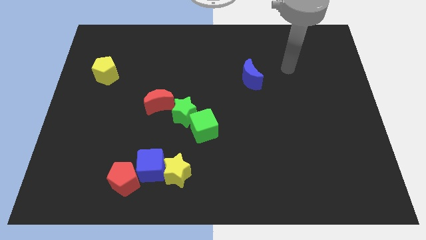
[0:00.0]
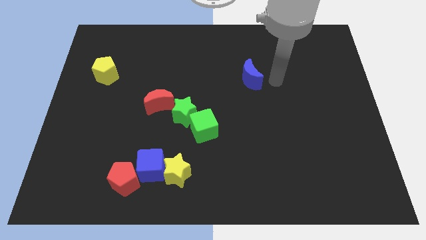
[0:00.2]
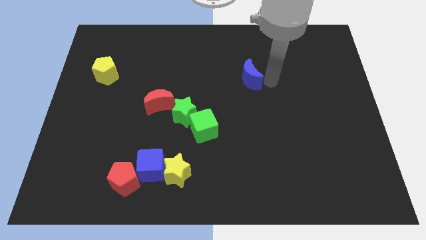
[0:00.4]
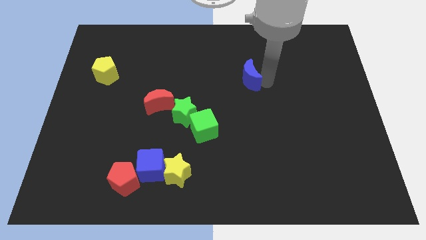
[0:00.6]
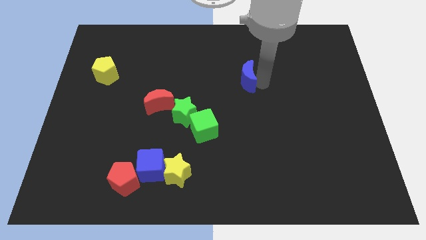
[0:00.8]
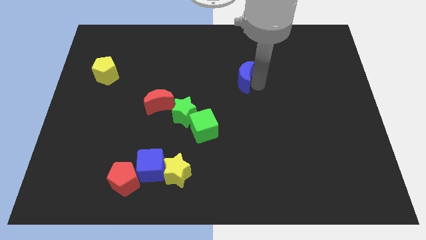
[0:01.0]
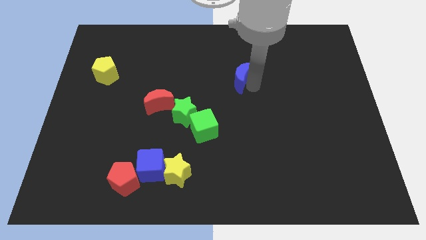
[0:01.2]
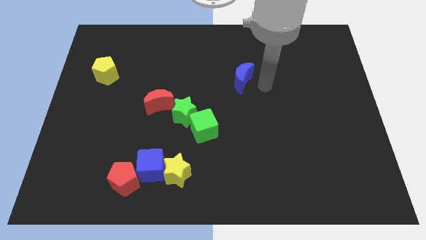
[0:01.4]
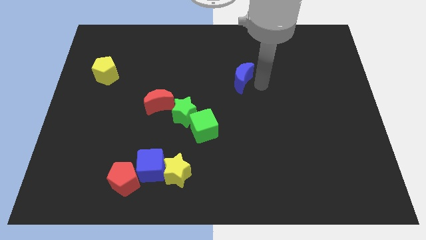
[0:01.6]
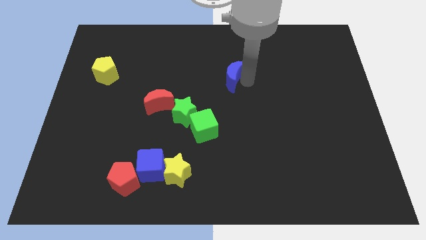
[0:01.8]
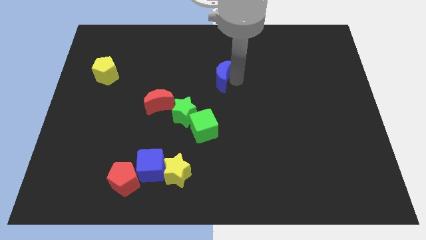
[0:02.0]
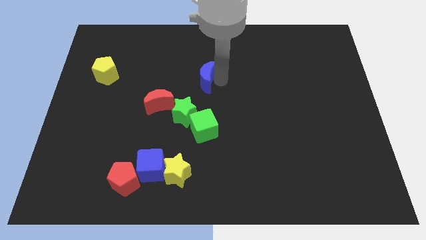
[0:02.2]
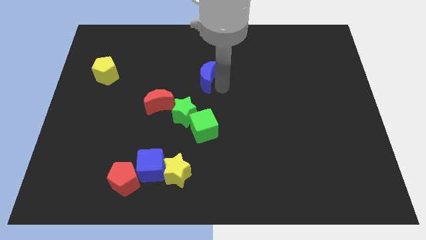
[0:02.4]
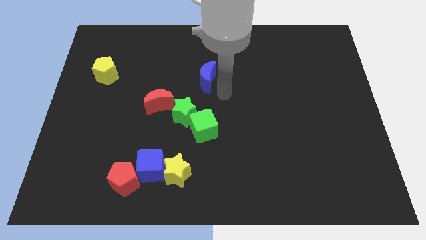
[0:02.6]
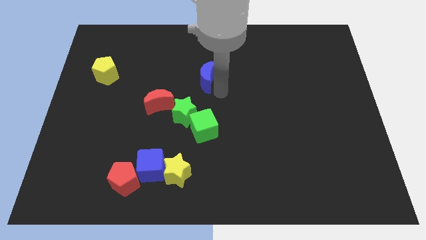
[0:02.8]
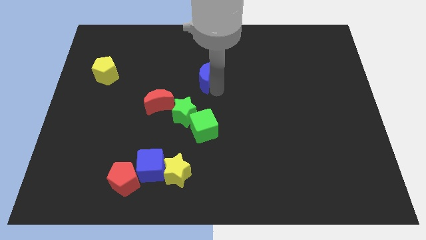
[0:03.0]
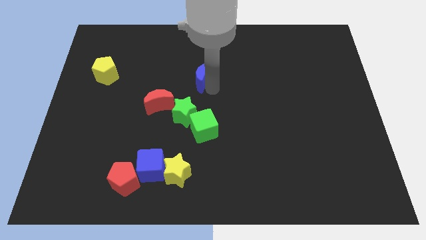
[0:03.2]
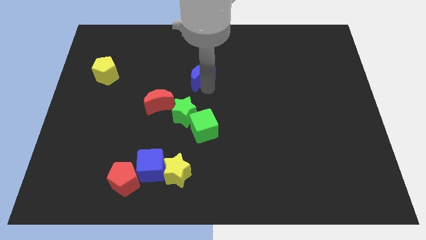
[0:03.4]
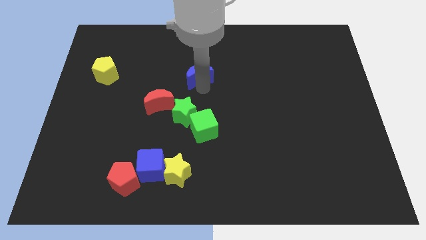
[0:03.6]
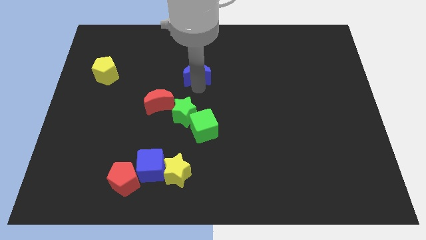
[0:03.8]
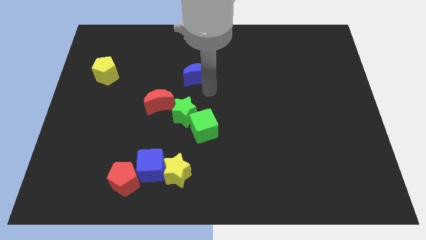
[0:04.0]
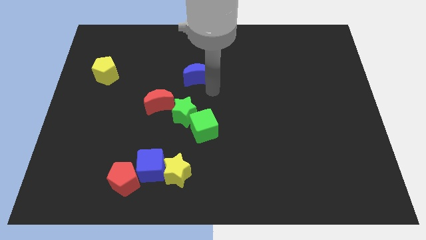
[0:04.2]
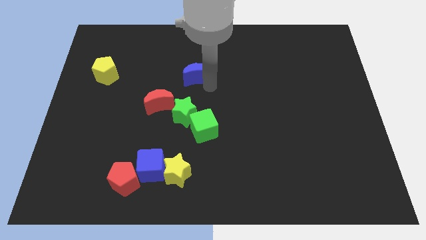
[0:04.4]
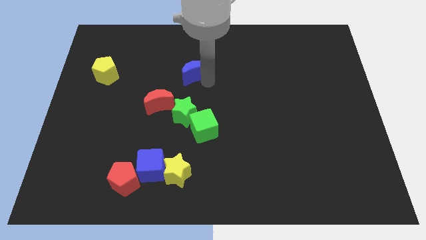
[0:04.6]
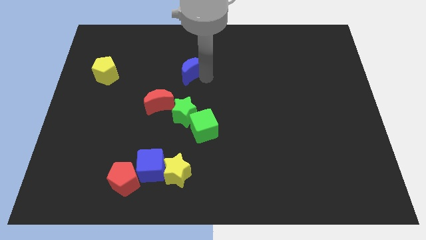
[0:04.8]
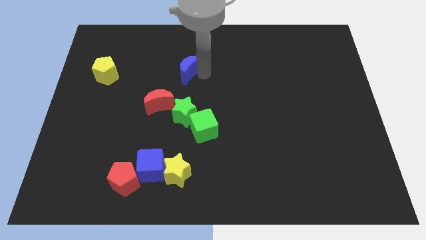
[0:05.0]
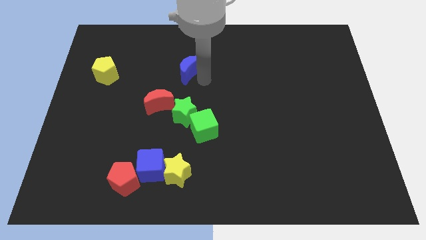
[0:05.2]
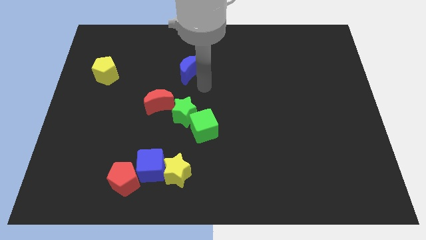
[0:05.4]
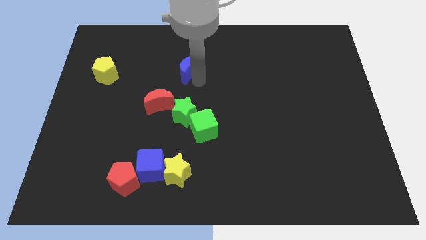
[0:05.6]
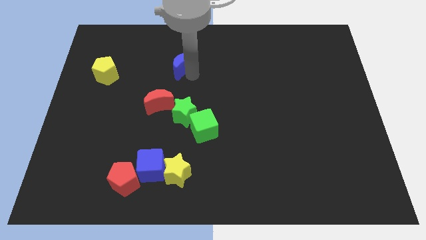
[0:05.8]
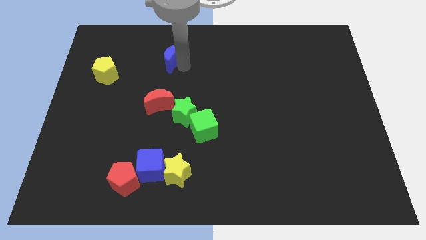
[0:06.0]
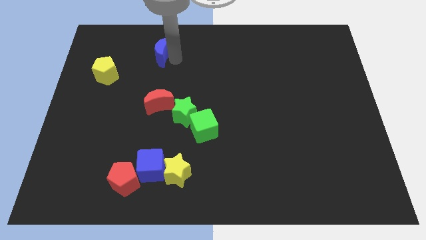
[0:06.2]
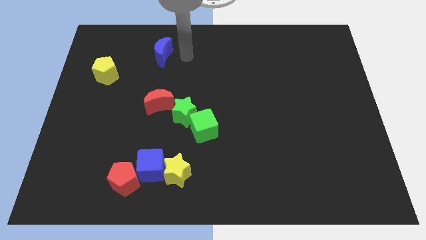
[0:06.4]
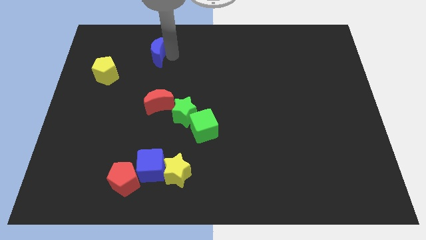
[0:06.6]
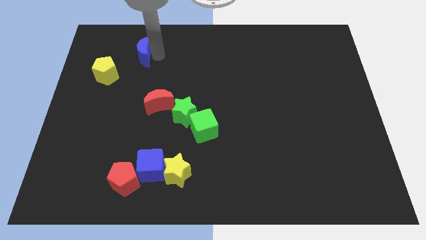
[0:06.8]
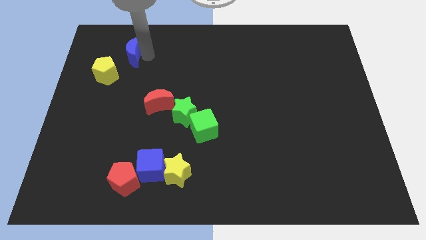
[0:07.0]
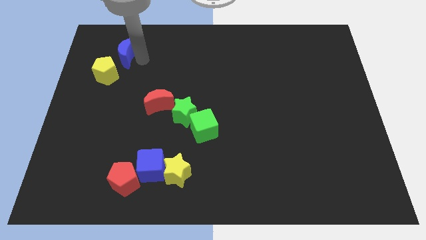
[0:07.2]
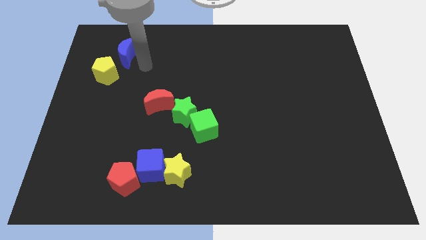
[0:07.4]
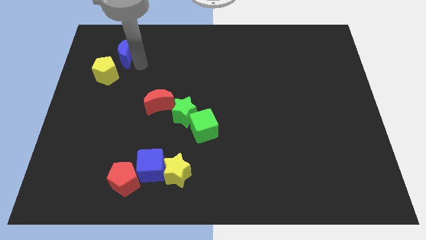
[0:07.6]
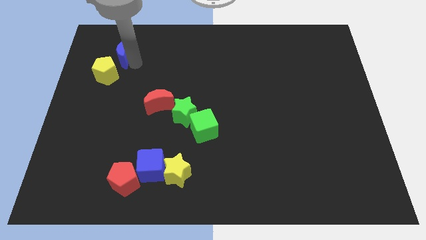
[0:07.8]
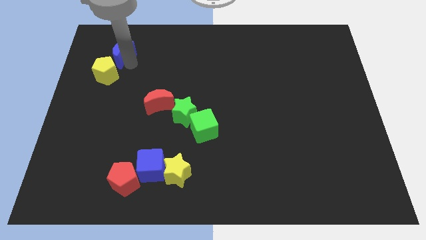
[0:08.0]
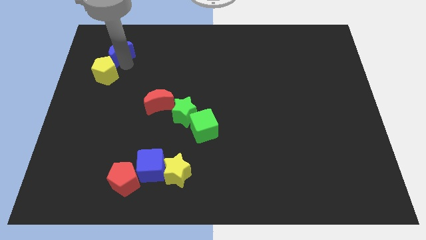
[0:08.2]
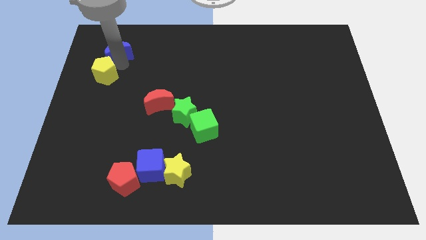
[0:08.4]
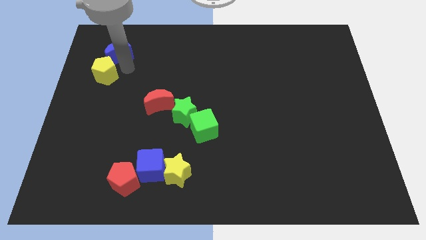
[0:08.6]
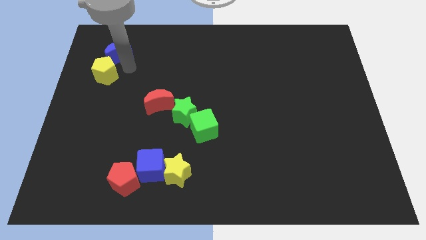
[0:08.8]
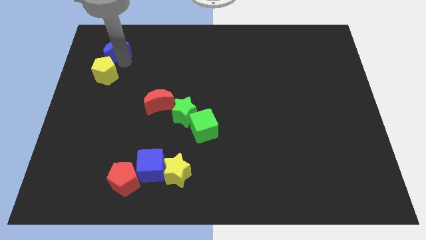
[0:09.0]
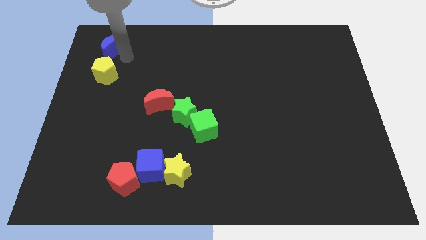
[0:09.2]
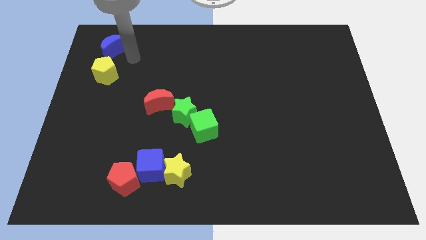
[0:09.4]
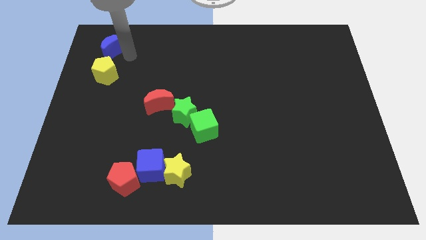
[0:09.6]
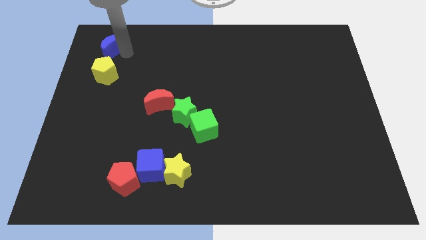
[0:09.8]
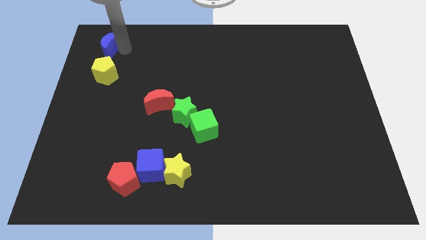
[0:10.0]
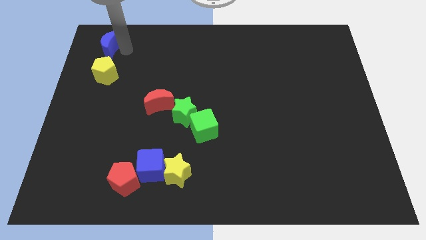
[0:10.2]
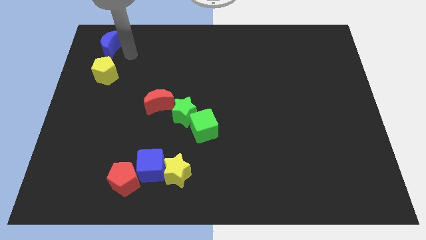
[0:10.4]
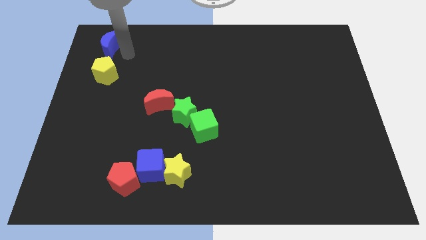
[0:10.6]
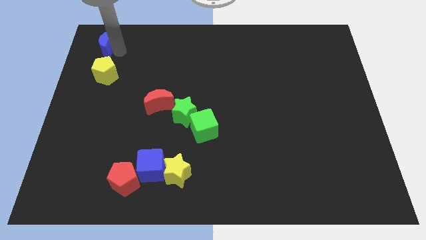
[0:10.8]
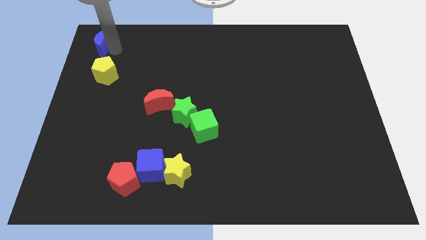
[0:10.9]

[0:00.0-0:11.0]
put the blue moon to the top left of the board

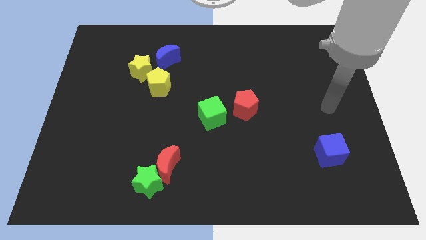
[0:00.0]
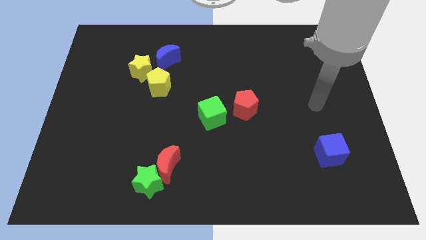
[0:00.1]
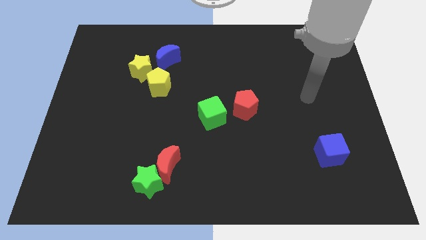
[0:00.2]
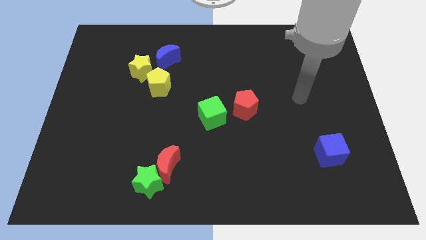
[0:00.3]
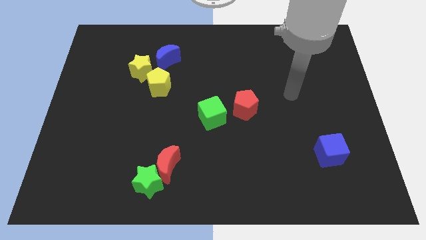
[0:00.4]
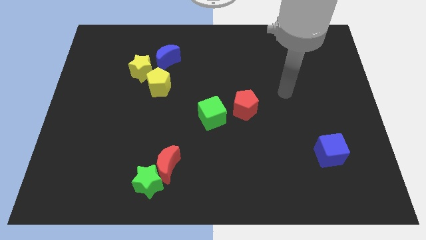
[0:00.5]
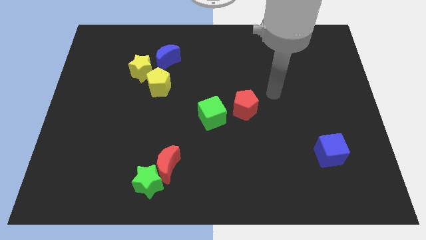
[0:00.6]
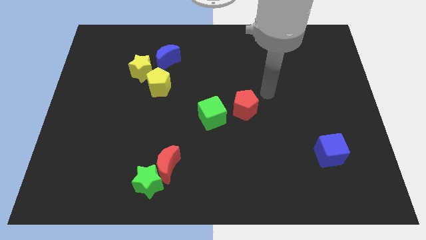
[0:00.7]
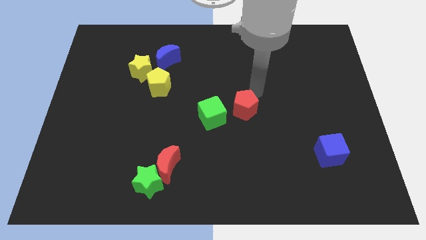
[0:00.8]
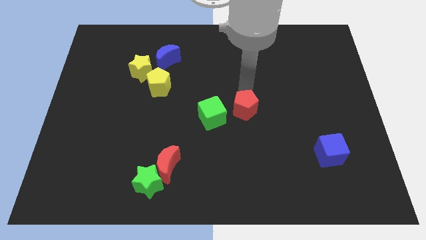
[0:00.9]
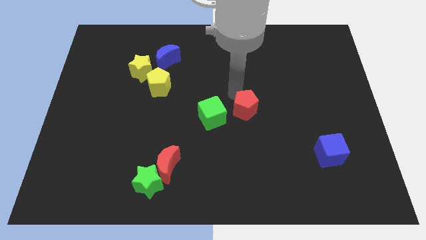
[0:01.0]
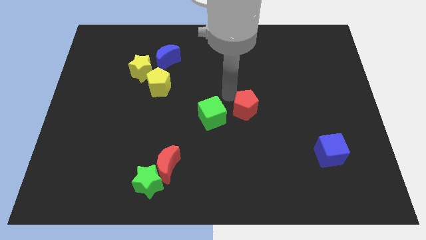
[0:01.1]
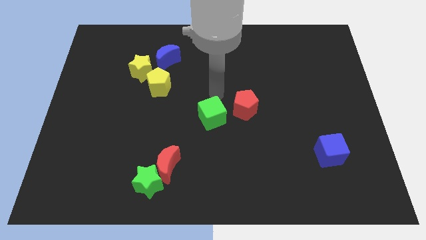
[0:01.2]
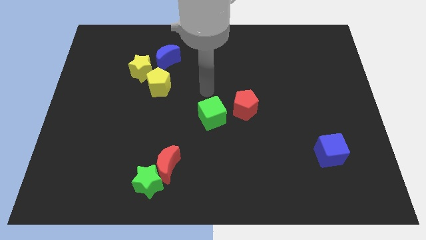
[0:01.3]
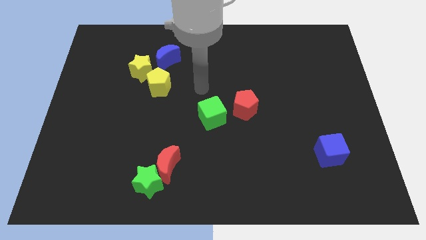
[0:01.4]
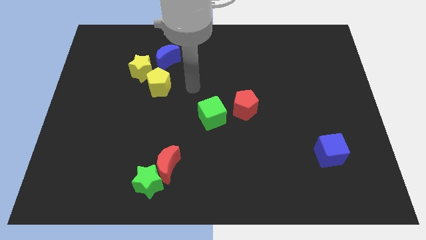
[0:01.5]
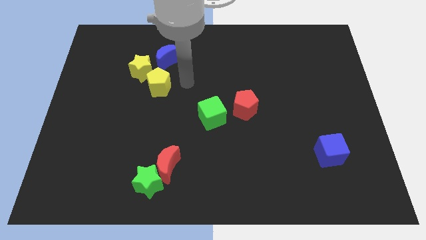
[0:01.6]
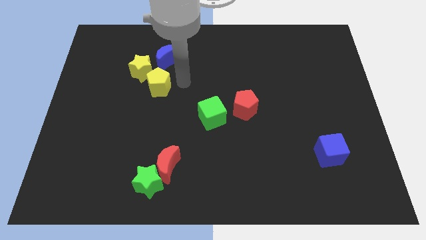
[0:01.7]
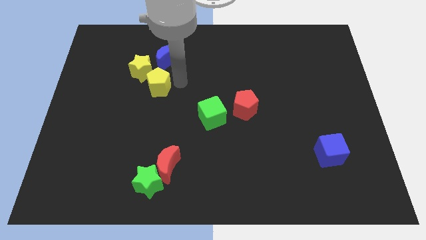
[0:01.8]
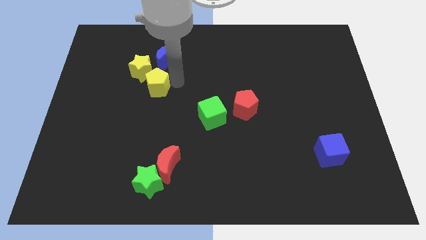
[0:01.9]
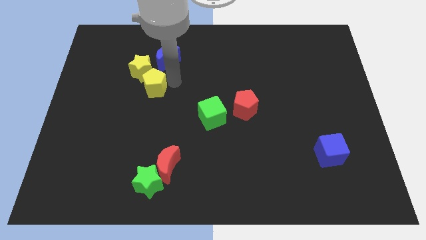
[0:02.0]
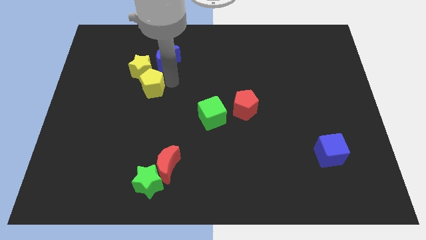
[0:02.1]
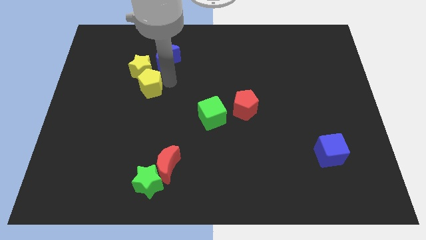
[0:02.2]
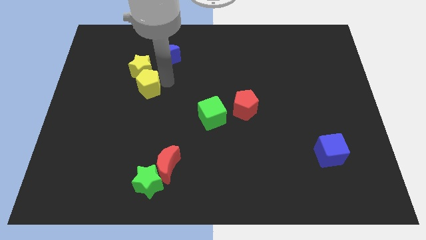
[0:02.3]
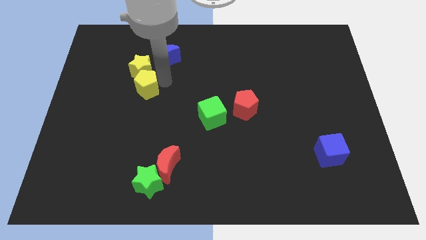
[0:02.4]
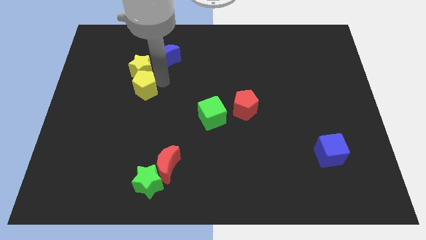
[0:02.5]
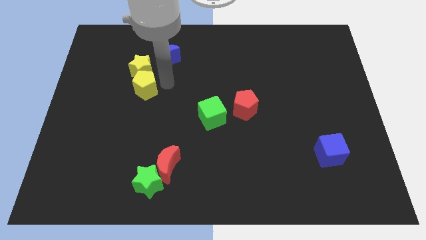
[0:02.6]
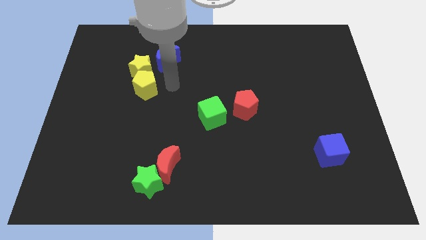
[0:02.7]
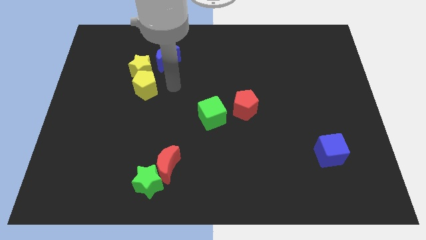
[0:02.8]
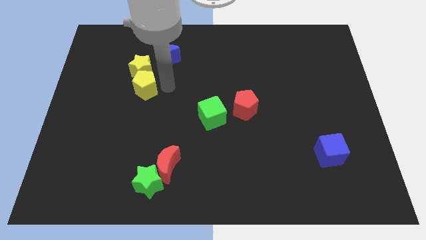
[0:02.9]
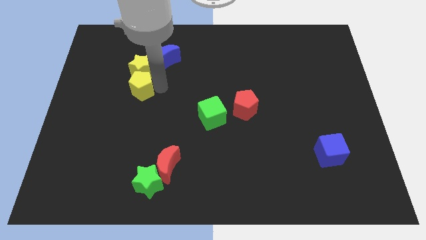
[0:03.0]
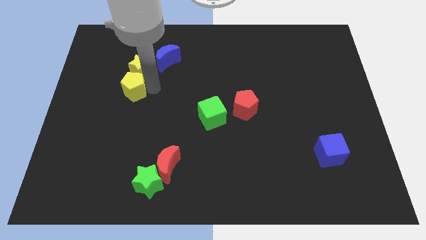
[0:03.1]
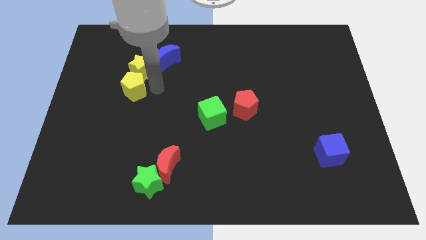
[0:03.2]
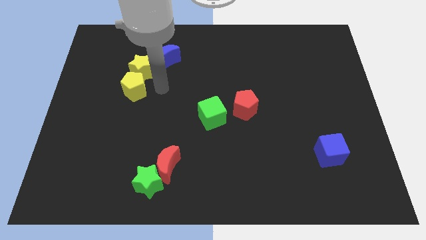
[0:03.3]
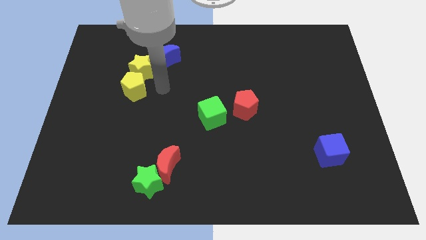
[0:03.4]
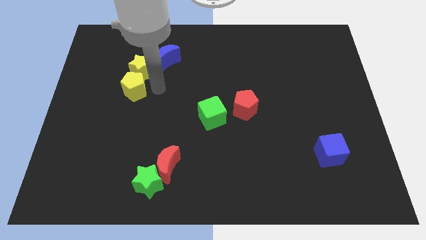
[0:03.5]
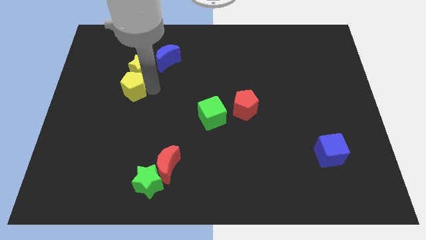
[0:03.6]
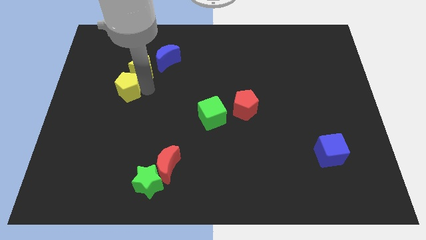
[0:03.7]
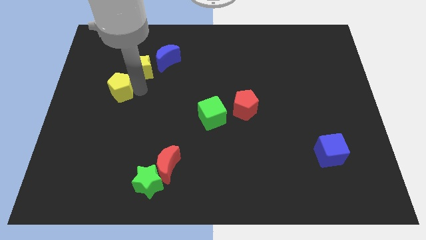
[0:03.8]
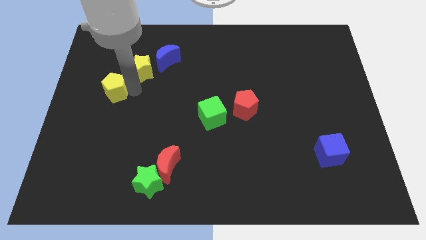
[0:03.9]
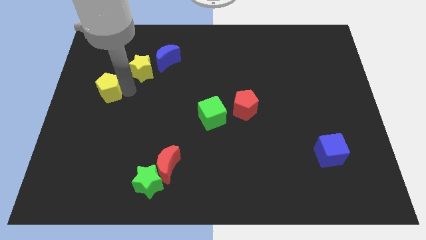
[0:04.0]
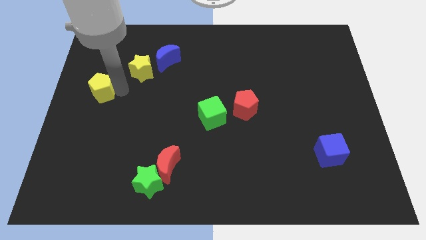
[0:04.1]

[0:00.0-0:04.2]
put the yellow pentagon to the left side of the board
